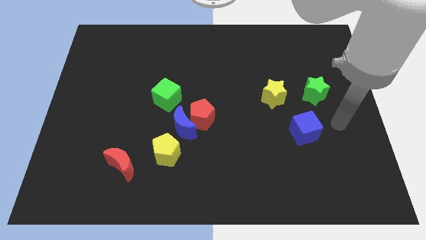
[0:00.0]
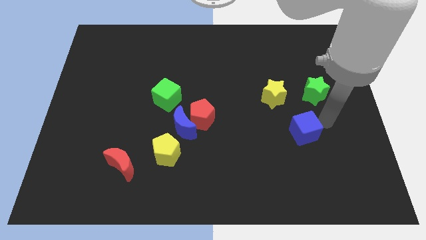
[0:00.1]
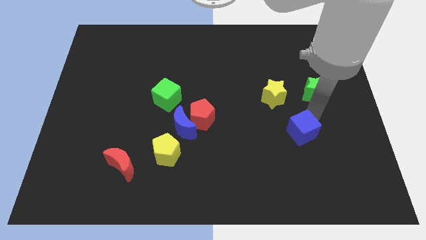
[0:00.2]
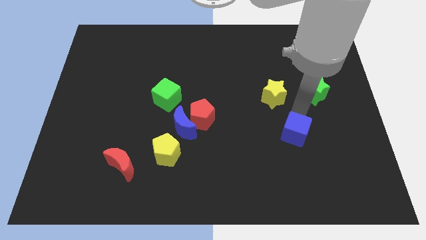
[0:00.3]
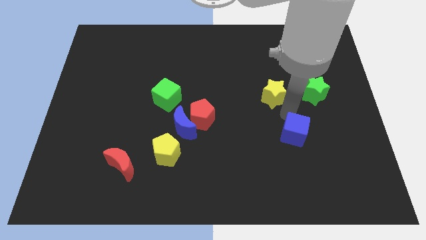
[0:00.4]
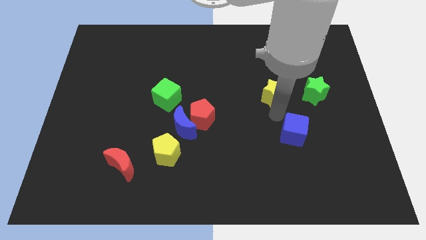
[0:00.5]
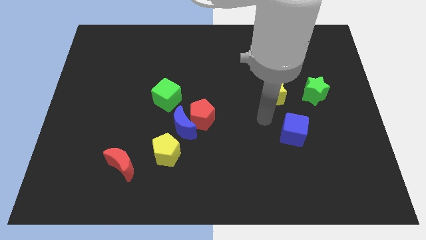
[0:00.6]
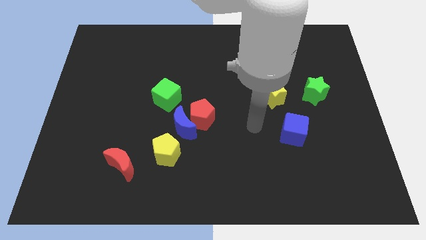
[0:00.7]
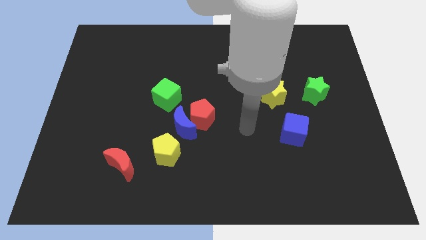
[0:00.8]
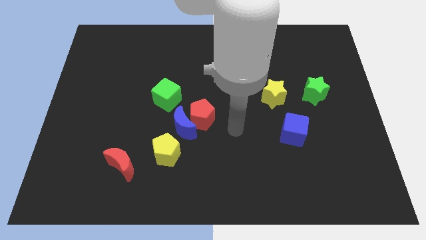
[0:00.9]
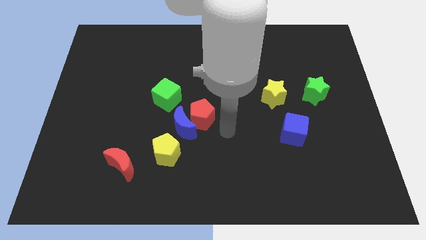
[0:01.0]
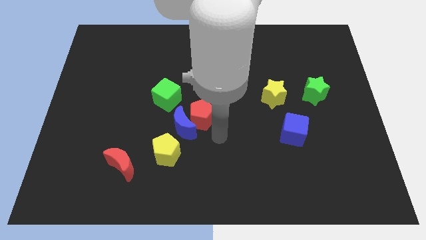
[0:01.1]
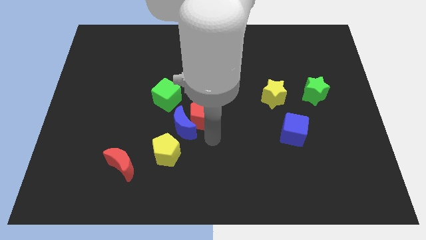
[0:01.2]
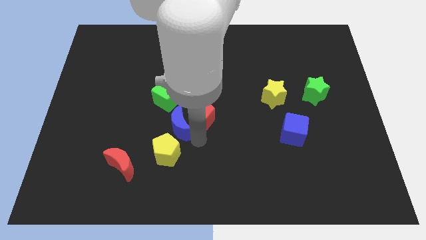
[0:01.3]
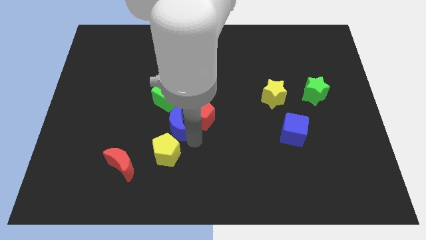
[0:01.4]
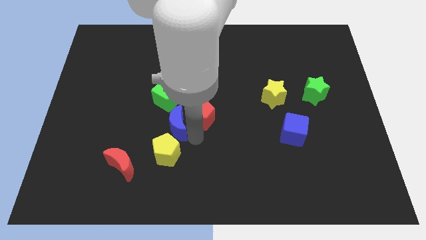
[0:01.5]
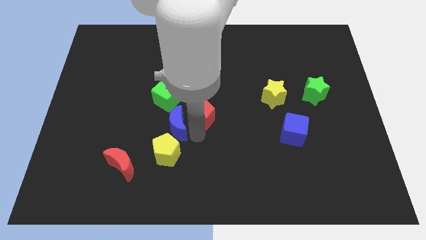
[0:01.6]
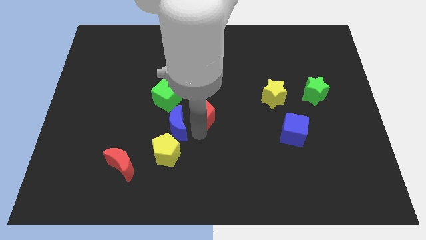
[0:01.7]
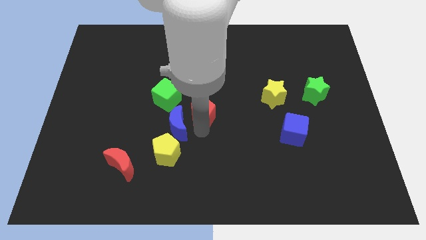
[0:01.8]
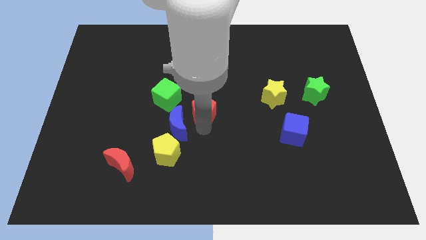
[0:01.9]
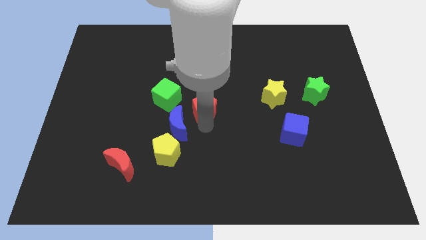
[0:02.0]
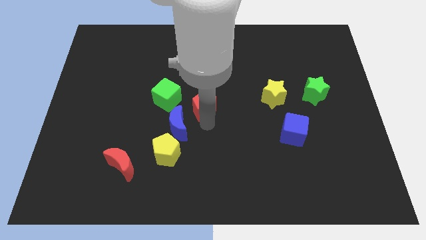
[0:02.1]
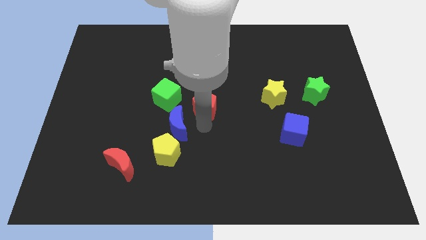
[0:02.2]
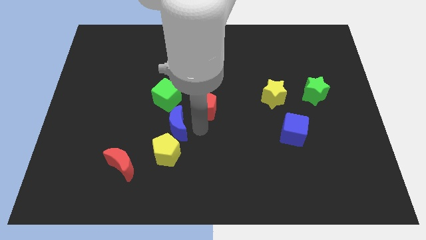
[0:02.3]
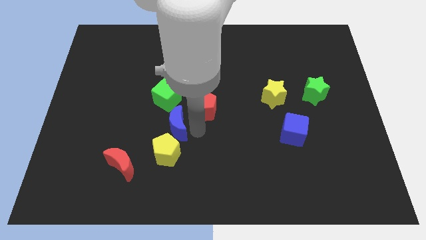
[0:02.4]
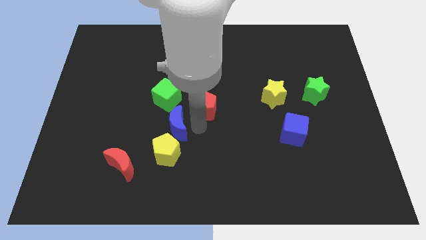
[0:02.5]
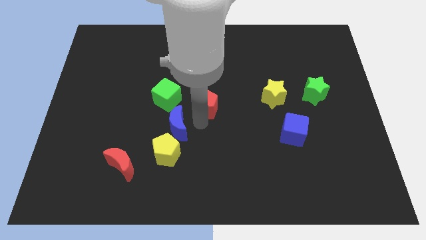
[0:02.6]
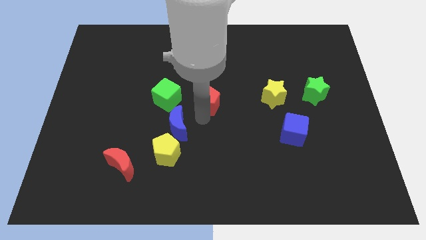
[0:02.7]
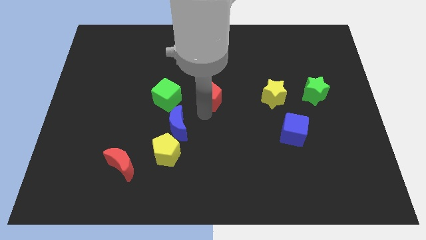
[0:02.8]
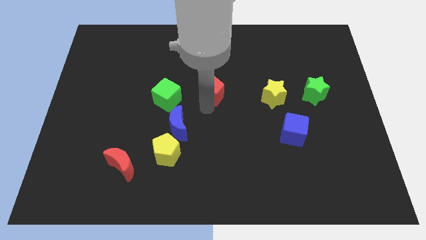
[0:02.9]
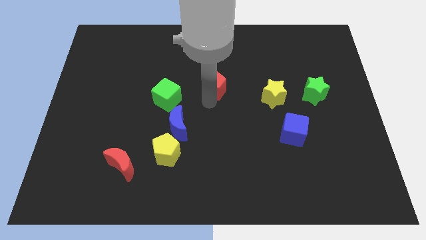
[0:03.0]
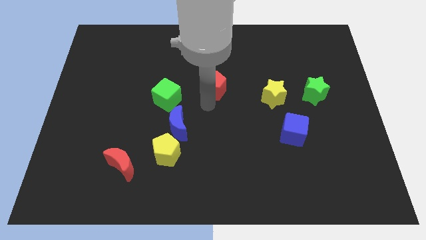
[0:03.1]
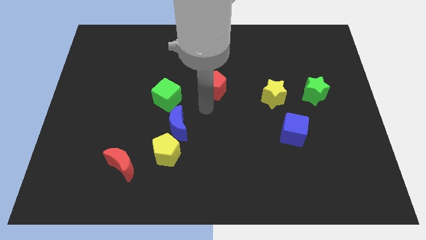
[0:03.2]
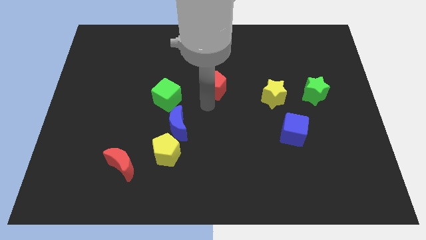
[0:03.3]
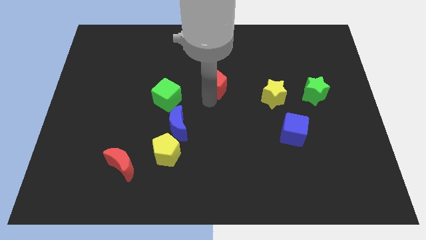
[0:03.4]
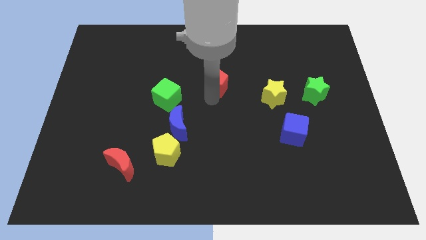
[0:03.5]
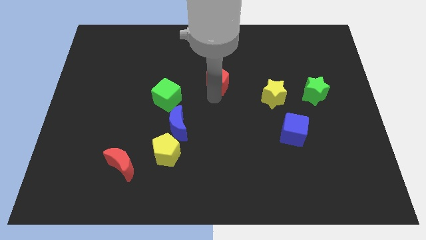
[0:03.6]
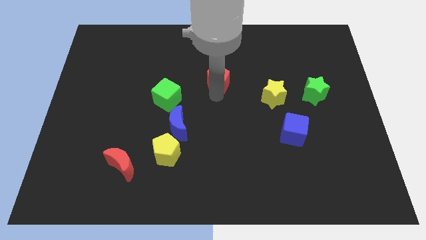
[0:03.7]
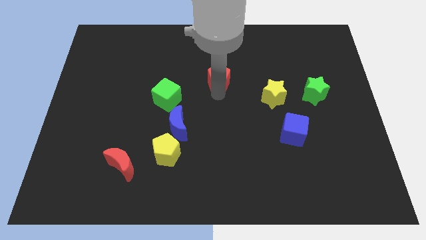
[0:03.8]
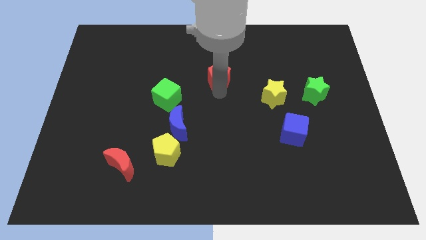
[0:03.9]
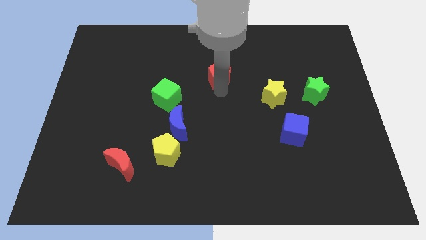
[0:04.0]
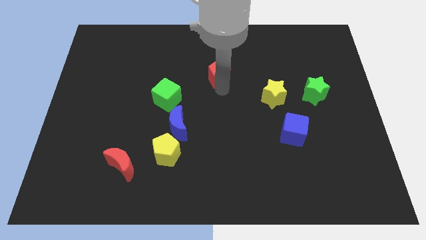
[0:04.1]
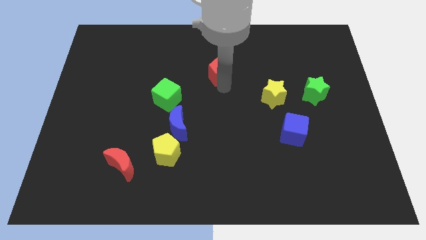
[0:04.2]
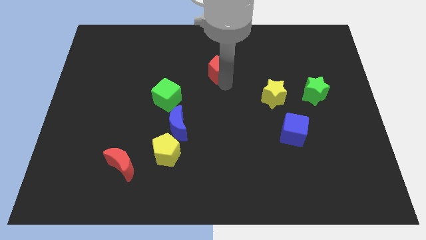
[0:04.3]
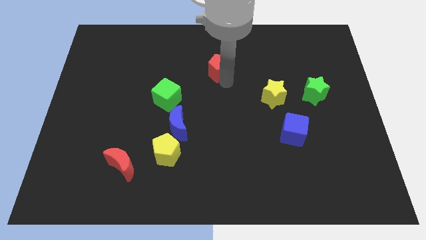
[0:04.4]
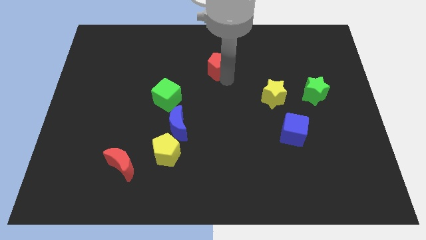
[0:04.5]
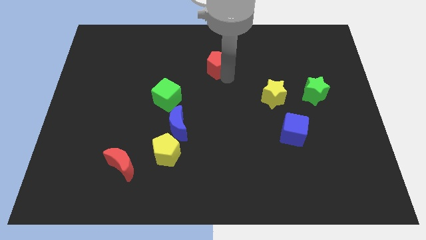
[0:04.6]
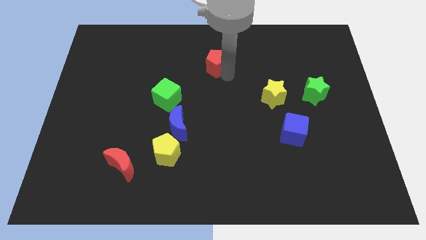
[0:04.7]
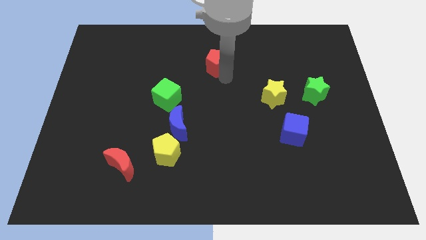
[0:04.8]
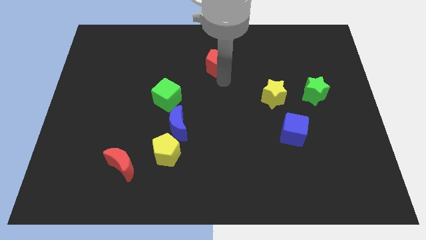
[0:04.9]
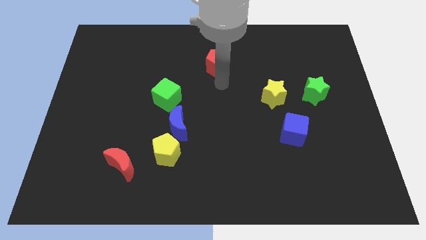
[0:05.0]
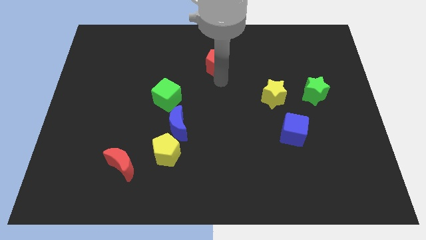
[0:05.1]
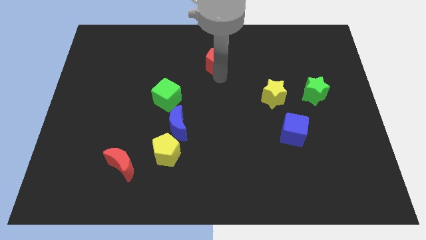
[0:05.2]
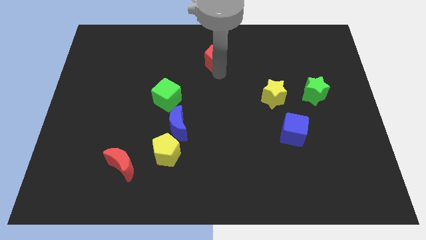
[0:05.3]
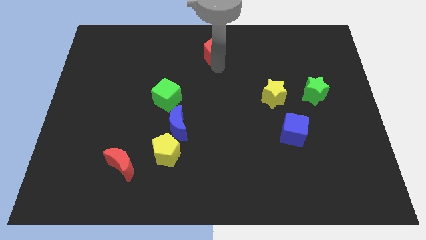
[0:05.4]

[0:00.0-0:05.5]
slide the red pentagon to the top side
